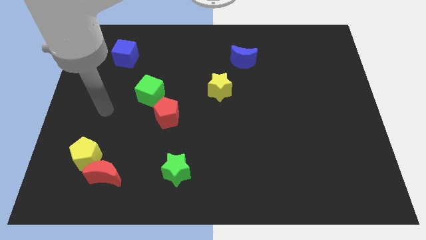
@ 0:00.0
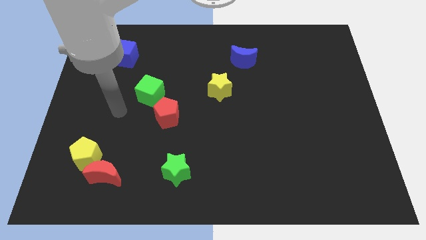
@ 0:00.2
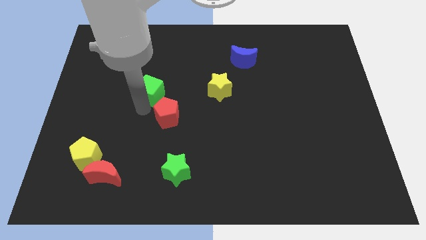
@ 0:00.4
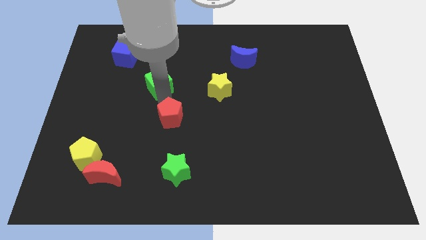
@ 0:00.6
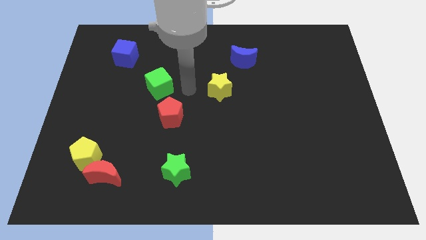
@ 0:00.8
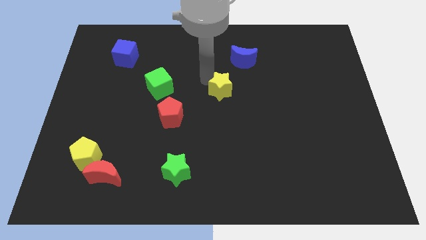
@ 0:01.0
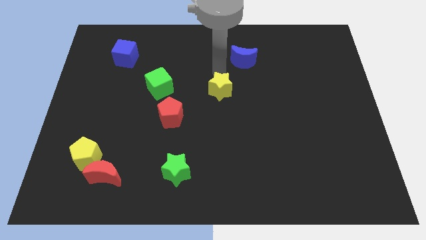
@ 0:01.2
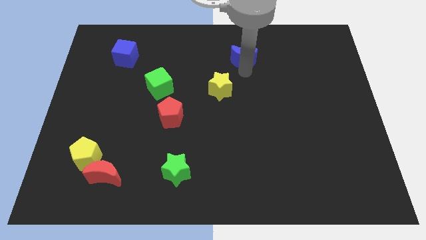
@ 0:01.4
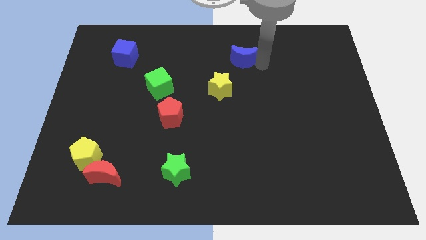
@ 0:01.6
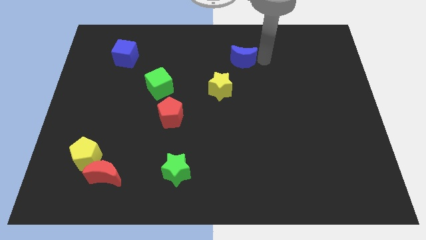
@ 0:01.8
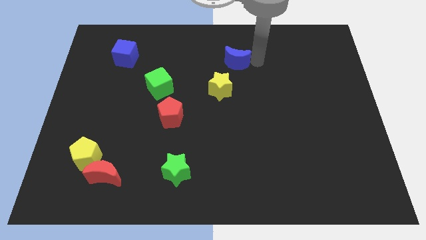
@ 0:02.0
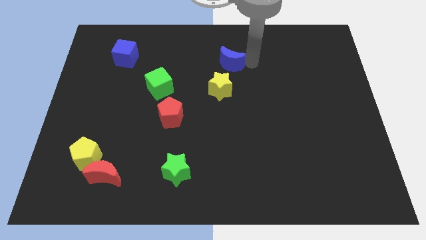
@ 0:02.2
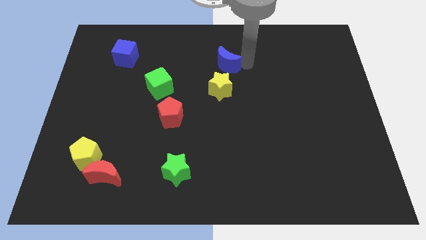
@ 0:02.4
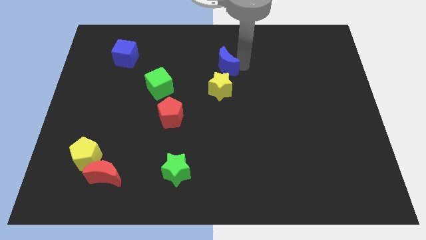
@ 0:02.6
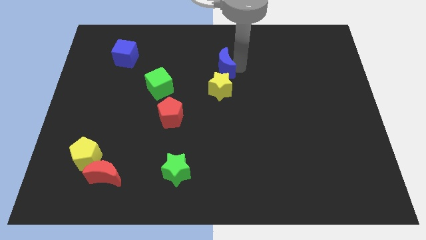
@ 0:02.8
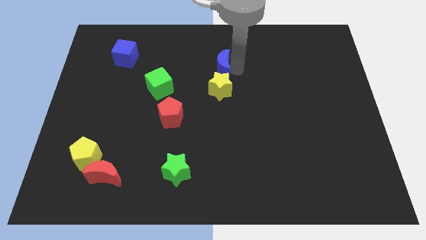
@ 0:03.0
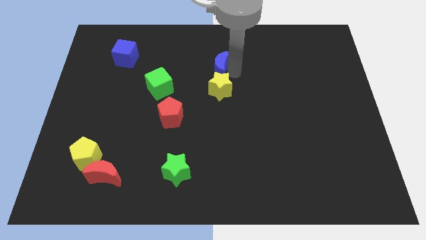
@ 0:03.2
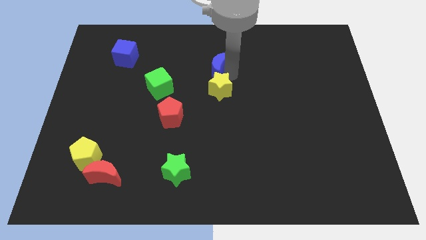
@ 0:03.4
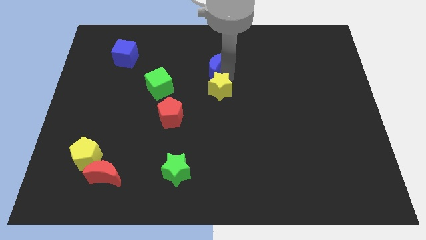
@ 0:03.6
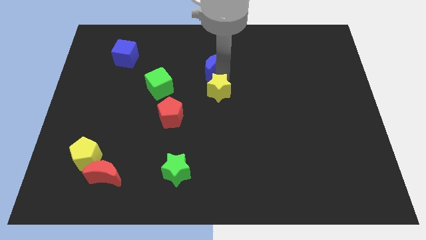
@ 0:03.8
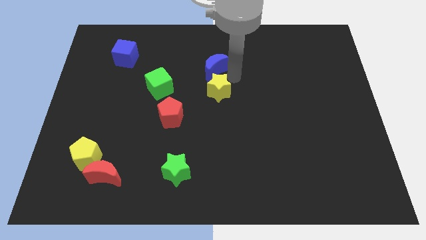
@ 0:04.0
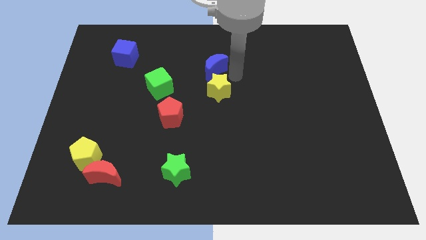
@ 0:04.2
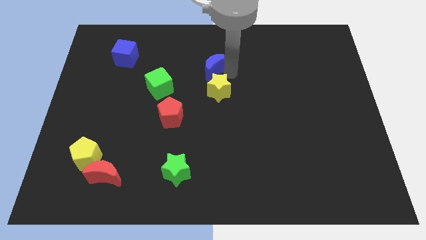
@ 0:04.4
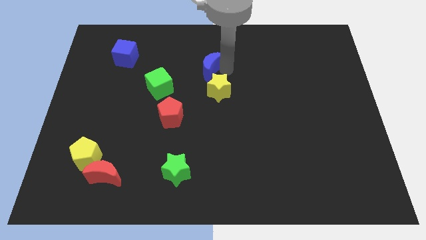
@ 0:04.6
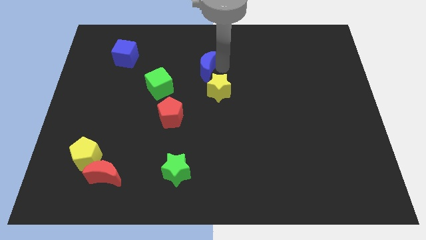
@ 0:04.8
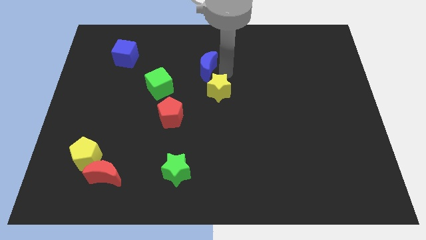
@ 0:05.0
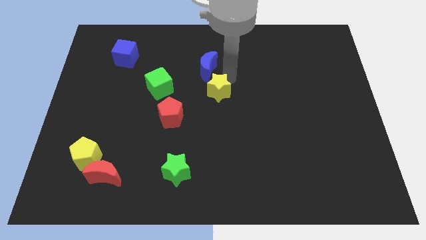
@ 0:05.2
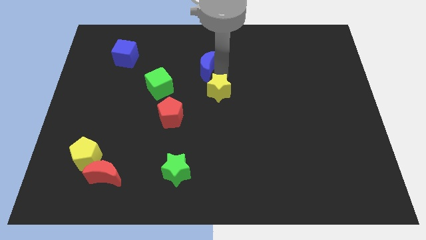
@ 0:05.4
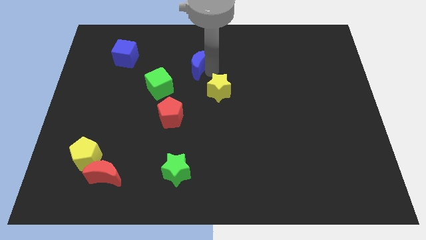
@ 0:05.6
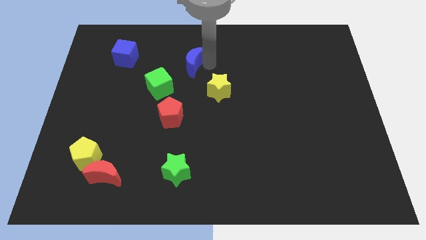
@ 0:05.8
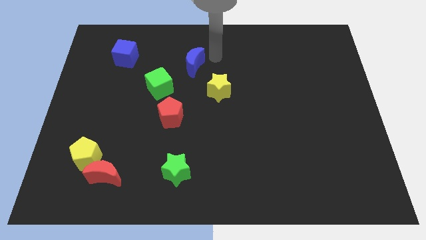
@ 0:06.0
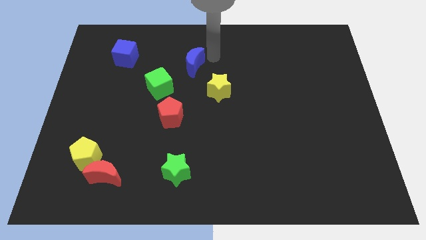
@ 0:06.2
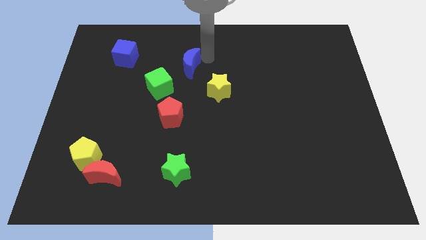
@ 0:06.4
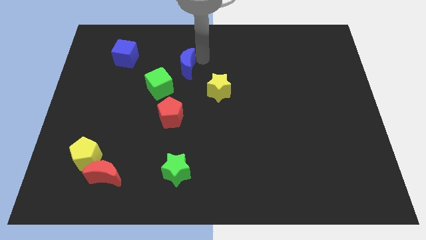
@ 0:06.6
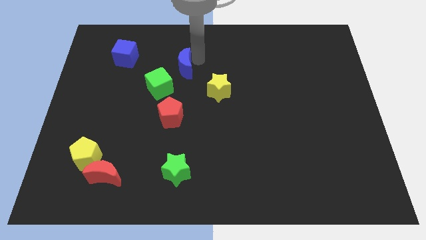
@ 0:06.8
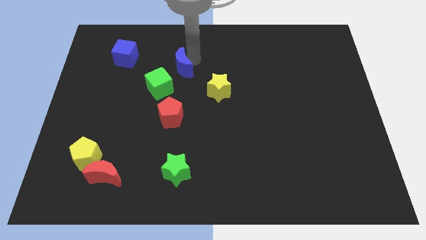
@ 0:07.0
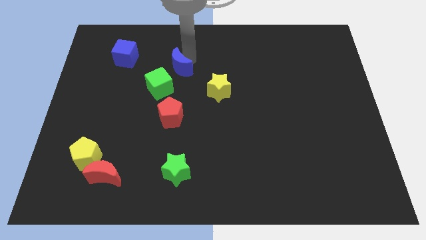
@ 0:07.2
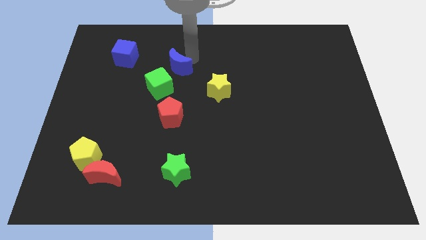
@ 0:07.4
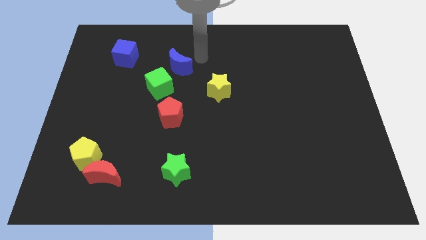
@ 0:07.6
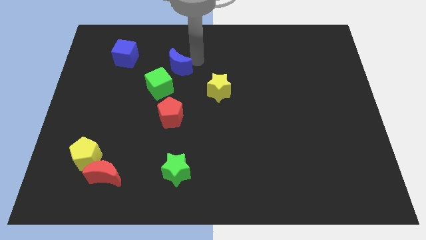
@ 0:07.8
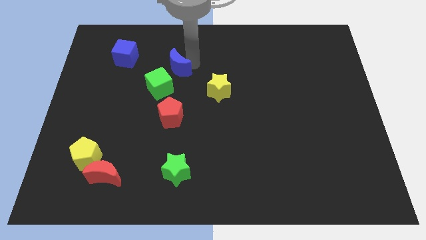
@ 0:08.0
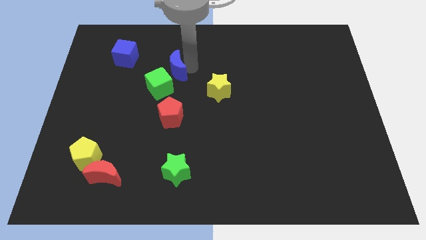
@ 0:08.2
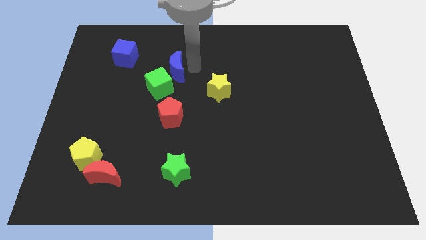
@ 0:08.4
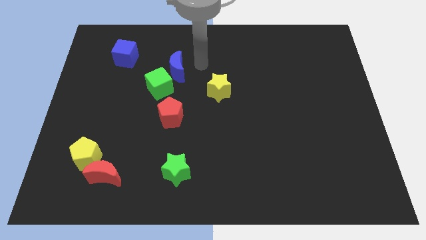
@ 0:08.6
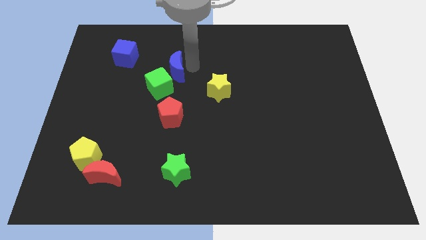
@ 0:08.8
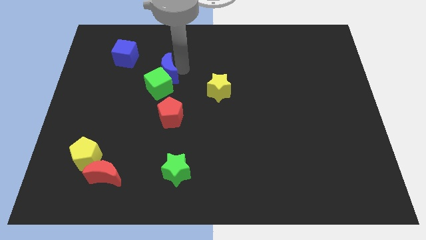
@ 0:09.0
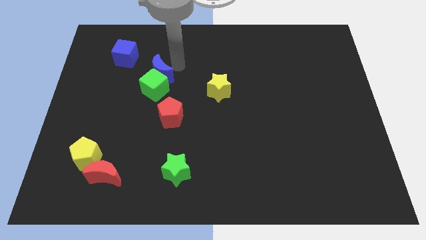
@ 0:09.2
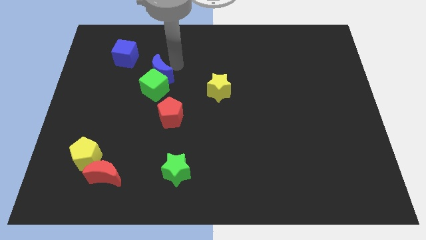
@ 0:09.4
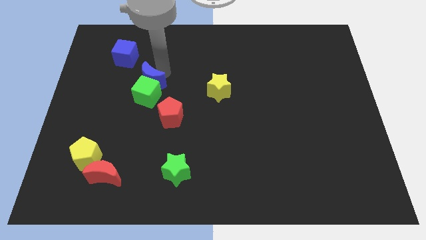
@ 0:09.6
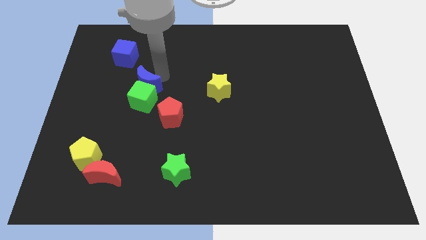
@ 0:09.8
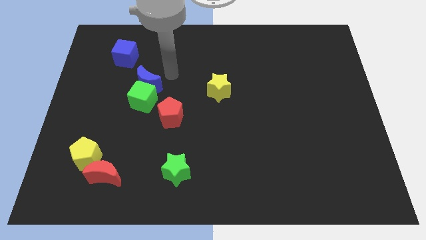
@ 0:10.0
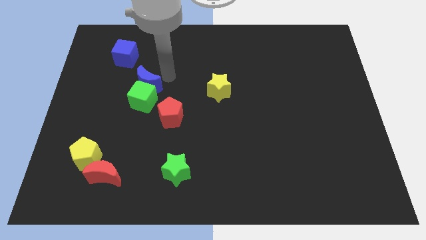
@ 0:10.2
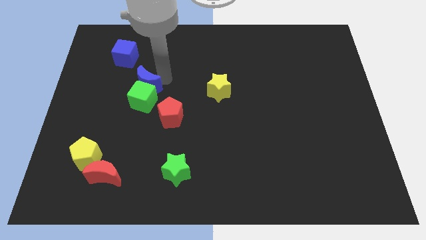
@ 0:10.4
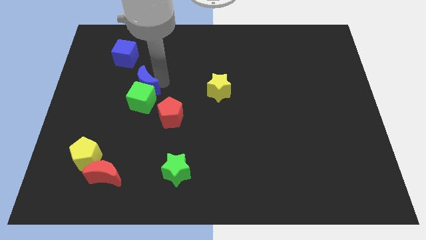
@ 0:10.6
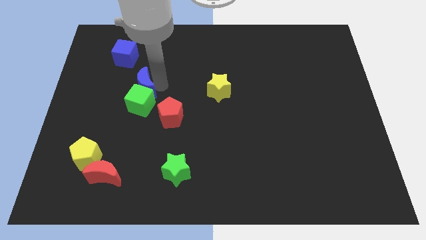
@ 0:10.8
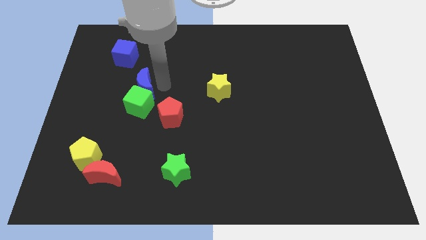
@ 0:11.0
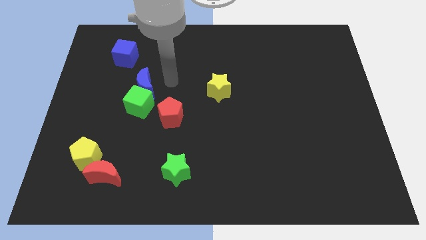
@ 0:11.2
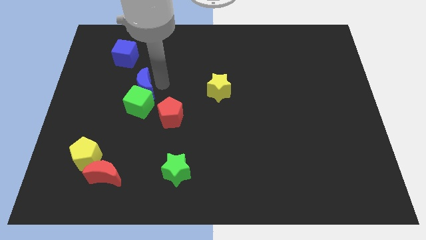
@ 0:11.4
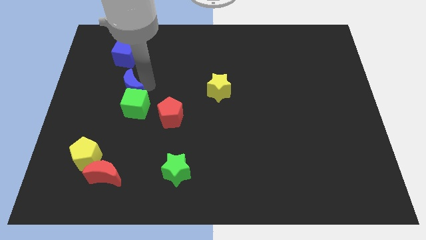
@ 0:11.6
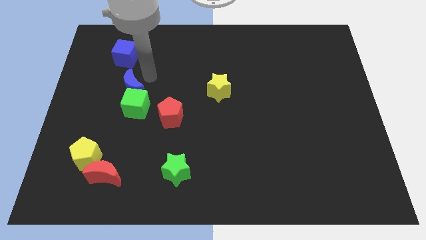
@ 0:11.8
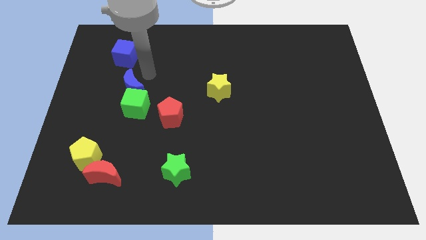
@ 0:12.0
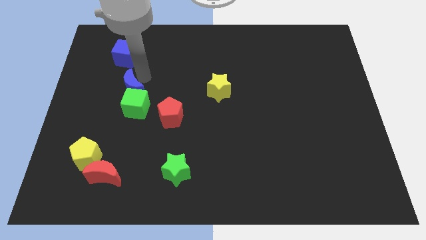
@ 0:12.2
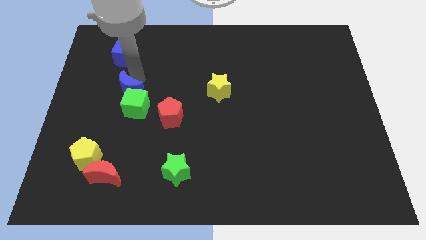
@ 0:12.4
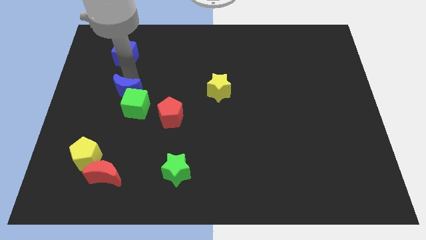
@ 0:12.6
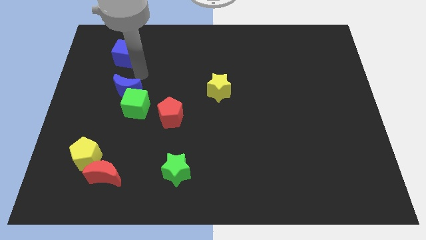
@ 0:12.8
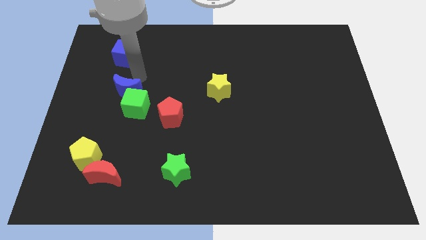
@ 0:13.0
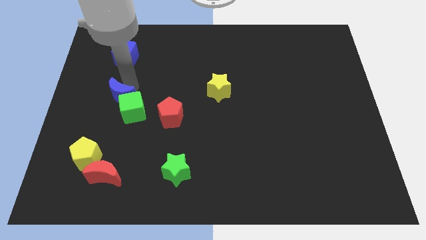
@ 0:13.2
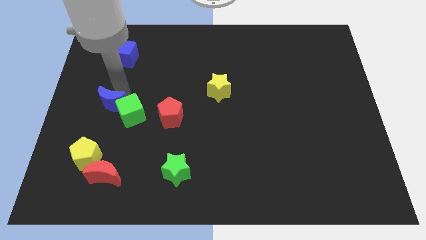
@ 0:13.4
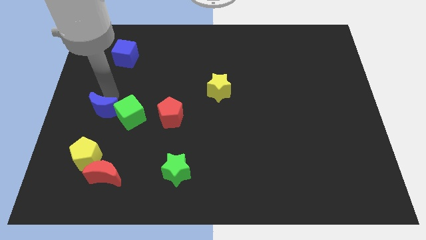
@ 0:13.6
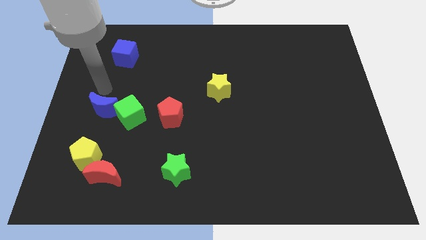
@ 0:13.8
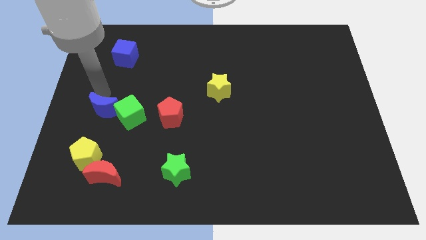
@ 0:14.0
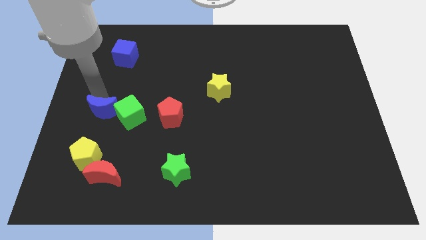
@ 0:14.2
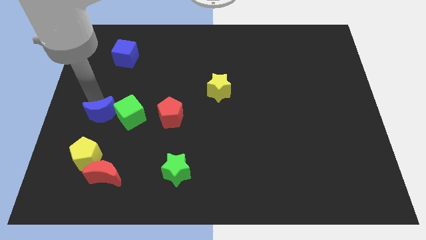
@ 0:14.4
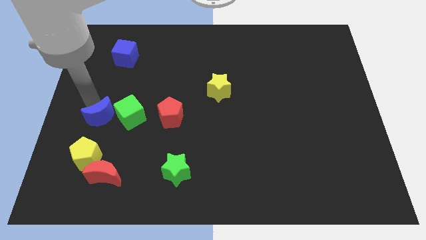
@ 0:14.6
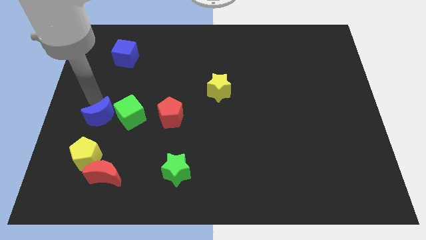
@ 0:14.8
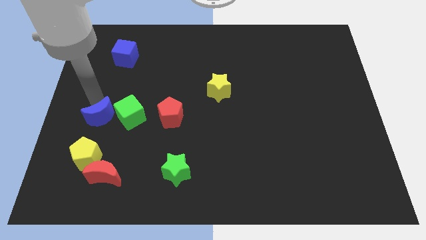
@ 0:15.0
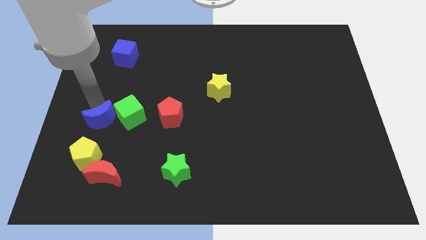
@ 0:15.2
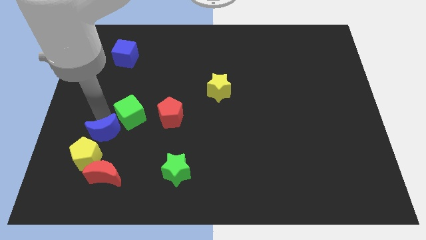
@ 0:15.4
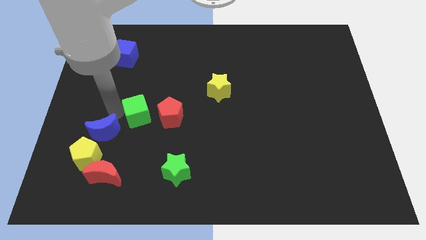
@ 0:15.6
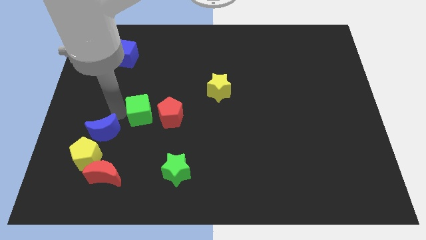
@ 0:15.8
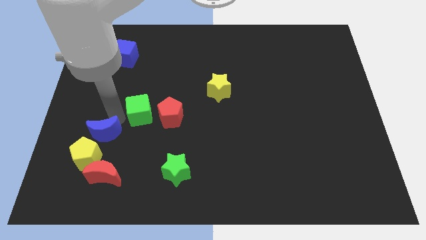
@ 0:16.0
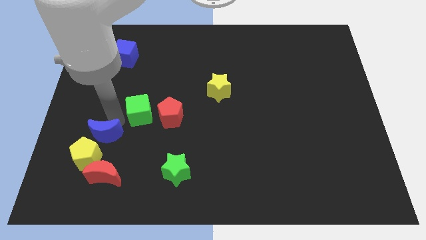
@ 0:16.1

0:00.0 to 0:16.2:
put the blue moon close to the yellow pentagon
